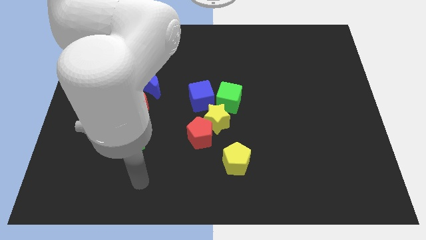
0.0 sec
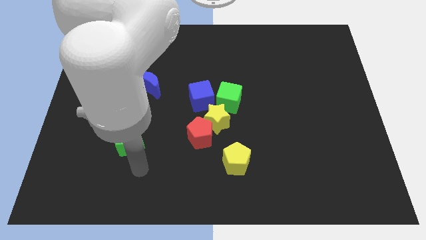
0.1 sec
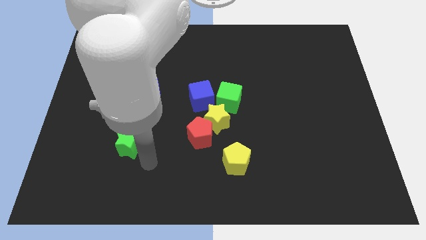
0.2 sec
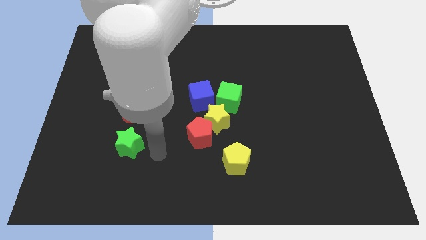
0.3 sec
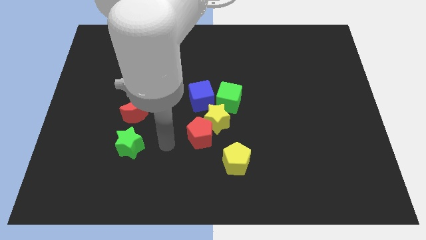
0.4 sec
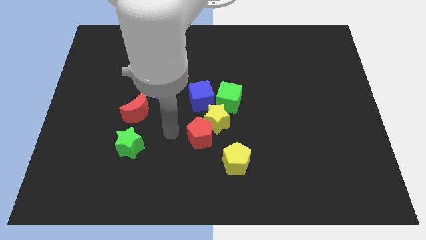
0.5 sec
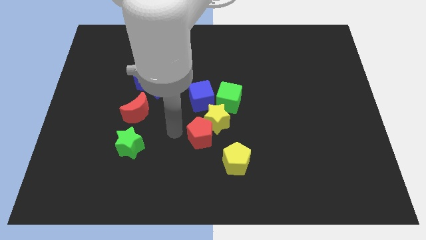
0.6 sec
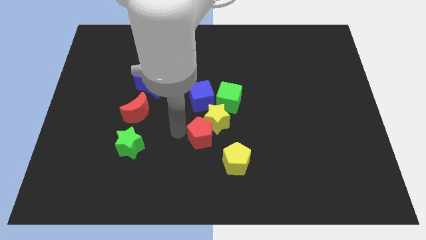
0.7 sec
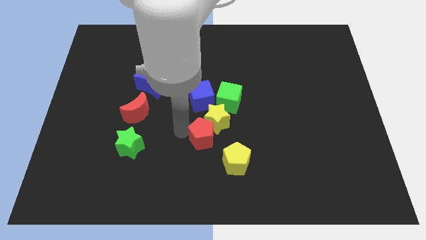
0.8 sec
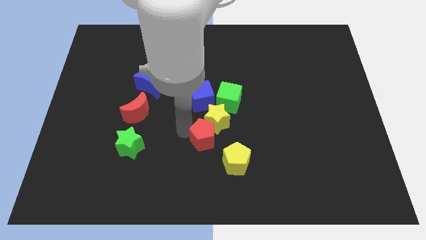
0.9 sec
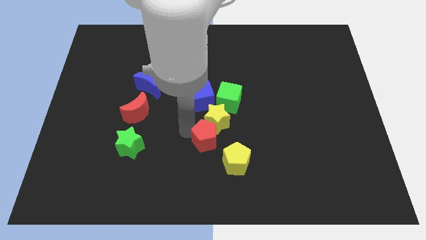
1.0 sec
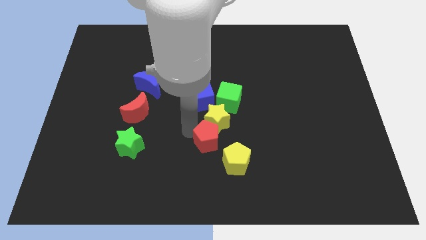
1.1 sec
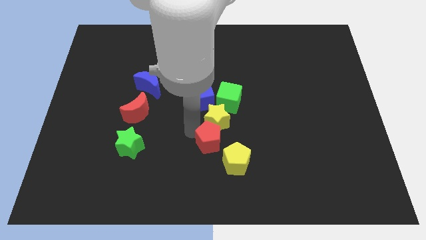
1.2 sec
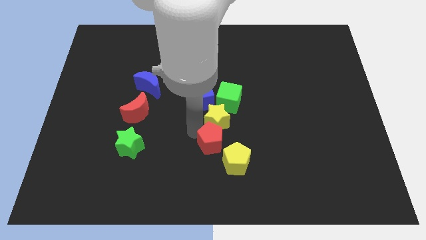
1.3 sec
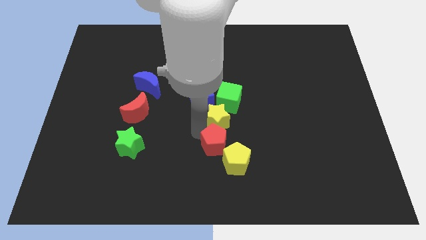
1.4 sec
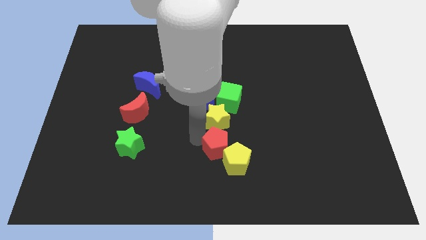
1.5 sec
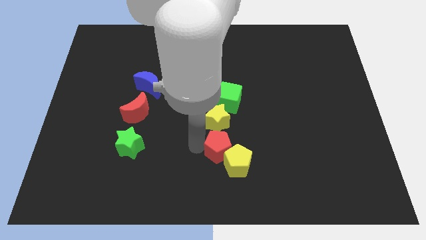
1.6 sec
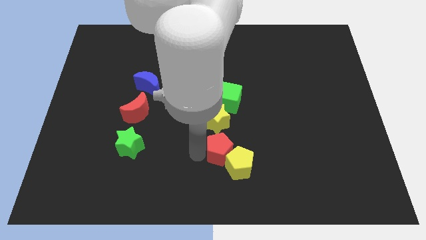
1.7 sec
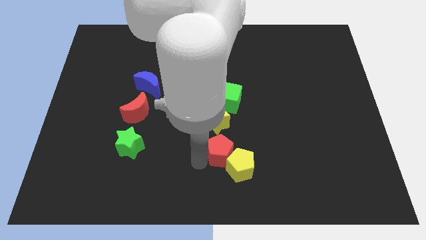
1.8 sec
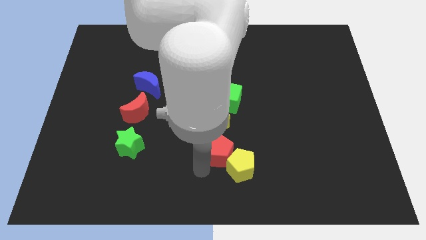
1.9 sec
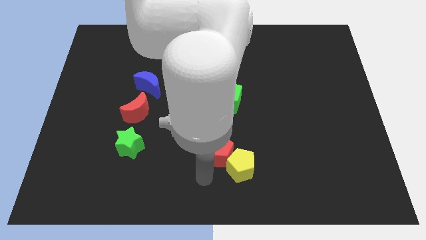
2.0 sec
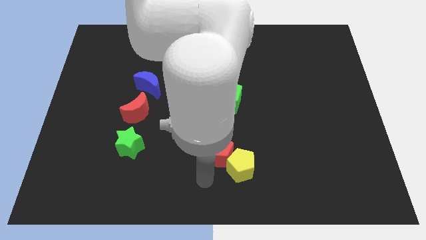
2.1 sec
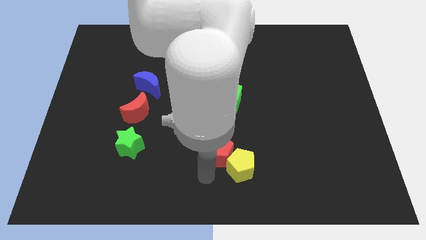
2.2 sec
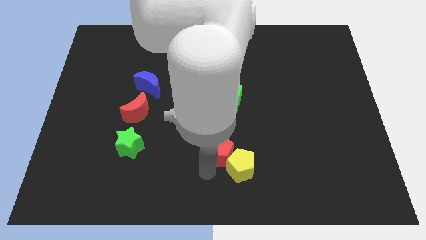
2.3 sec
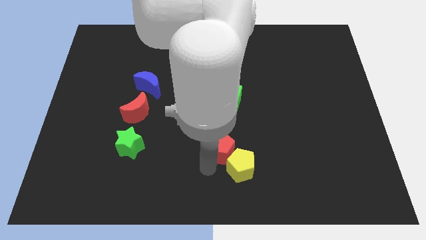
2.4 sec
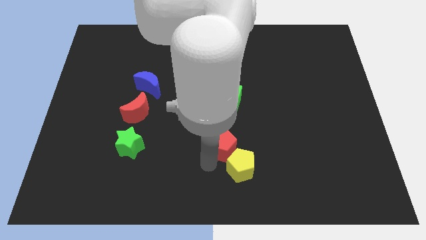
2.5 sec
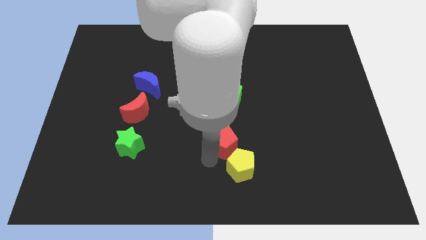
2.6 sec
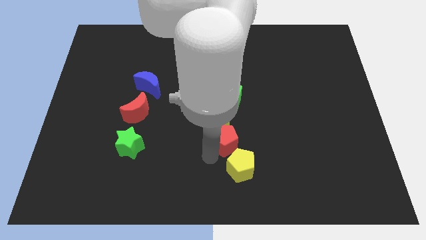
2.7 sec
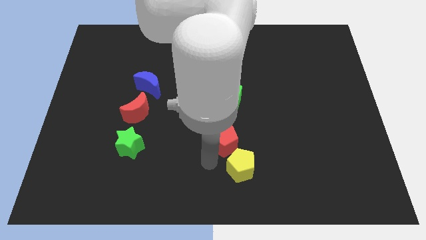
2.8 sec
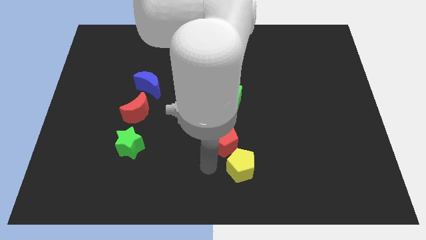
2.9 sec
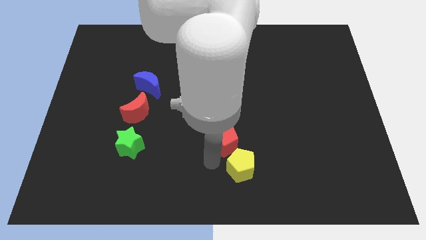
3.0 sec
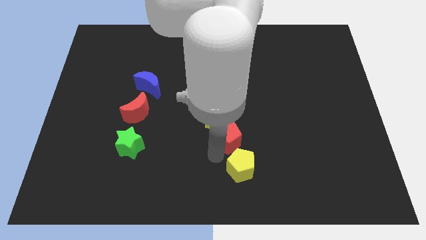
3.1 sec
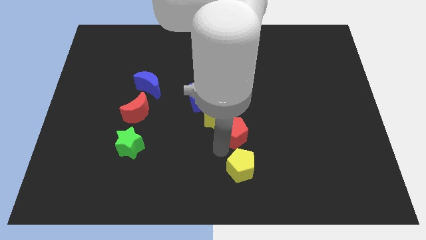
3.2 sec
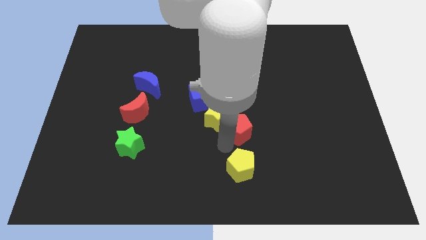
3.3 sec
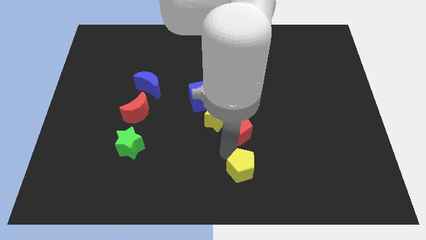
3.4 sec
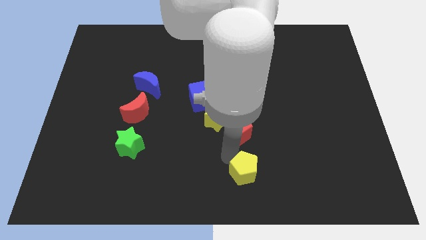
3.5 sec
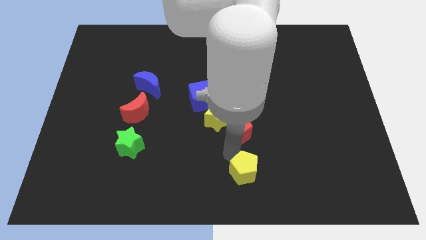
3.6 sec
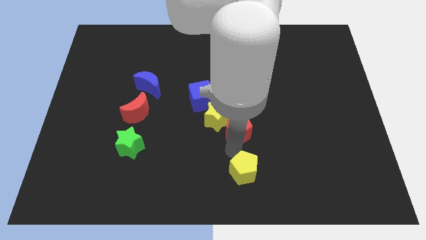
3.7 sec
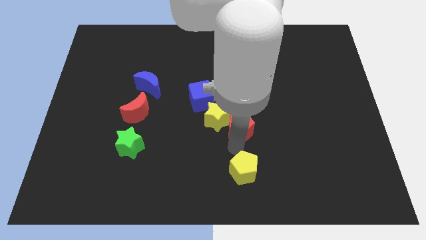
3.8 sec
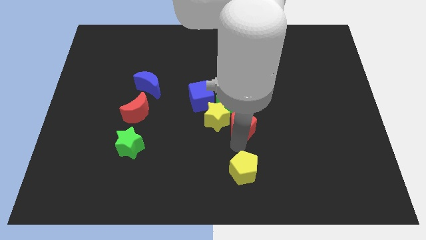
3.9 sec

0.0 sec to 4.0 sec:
slide the red pentagon slightly diagonally up and to the right

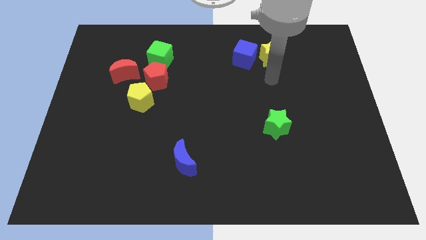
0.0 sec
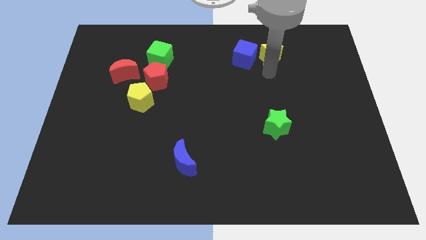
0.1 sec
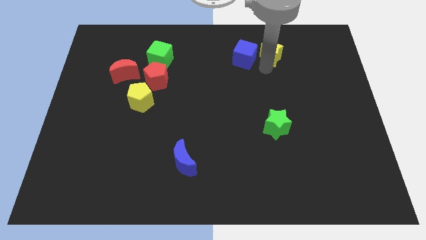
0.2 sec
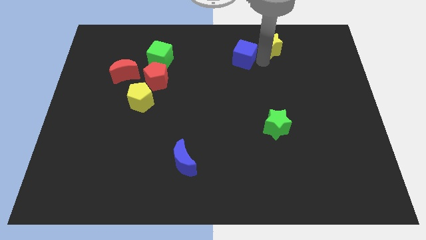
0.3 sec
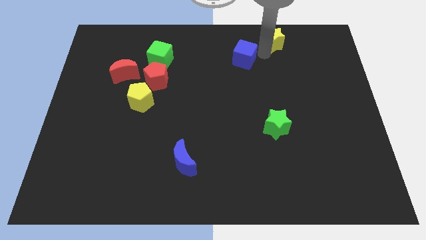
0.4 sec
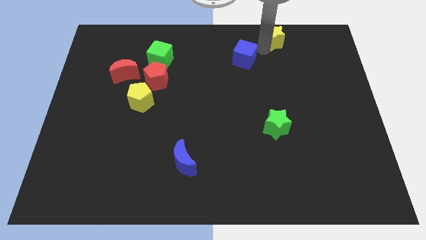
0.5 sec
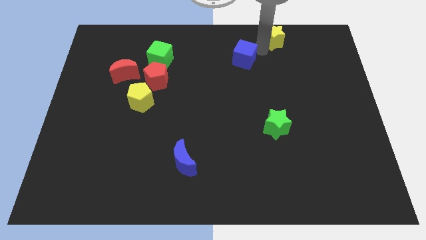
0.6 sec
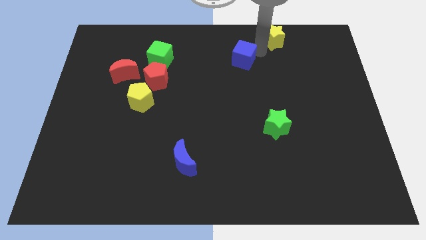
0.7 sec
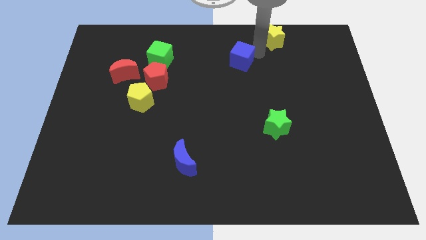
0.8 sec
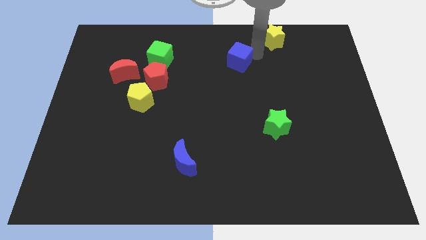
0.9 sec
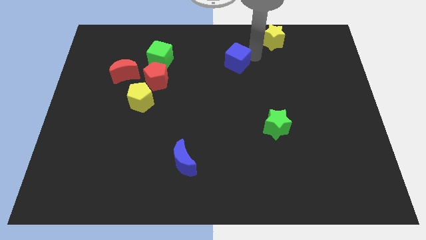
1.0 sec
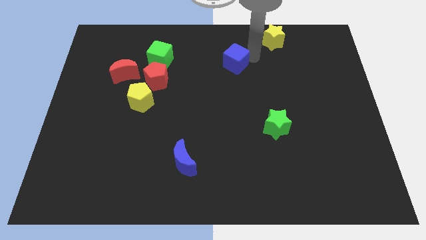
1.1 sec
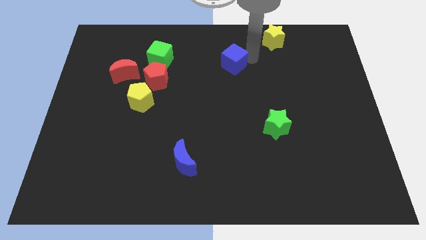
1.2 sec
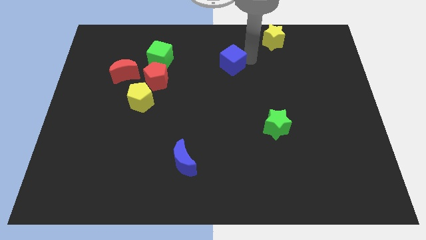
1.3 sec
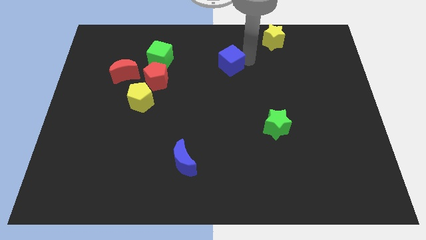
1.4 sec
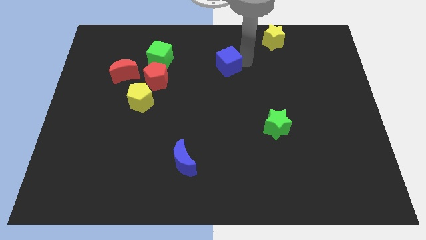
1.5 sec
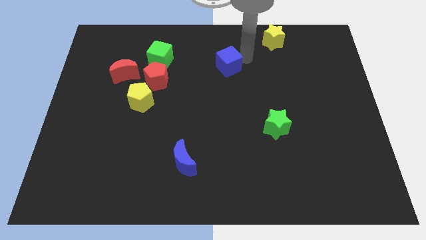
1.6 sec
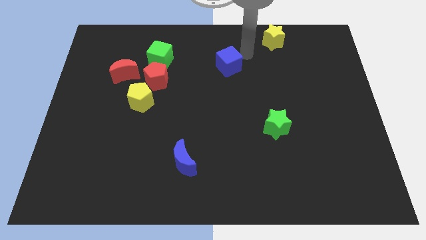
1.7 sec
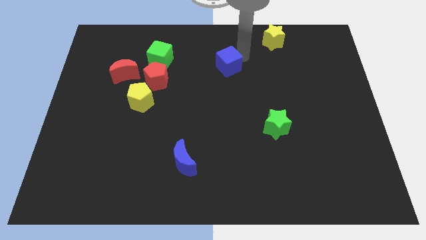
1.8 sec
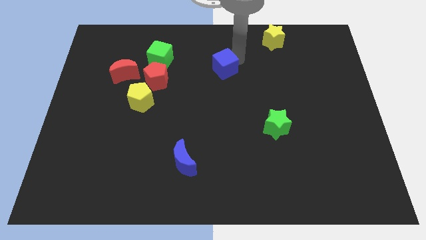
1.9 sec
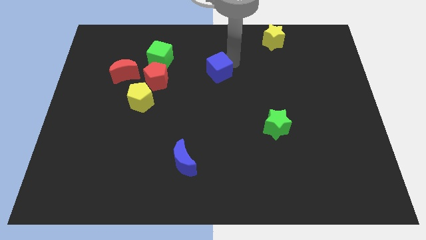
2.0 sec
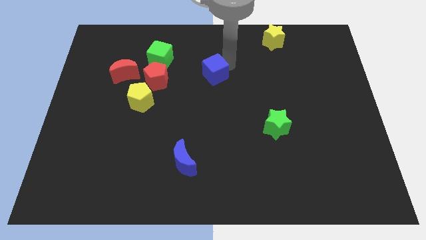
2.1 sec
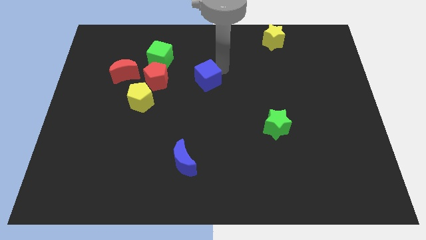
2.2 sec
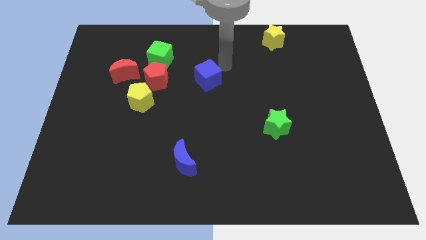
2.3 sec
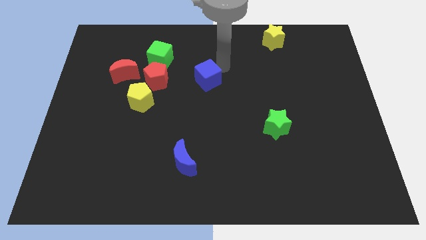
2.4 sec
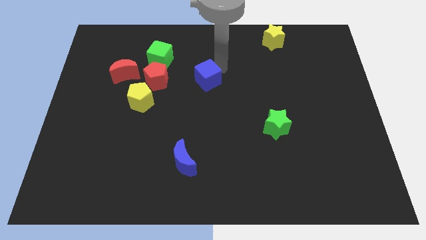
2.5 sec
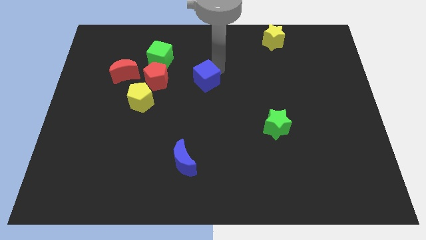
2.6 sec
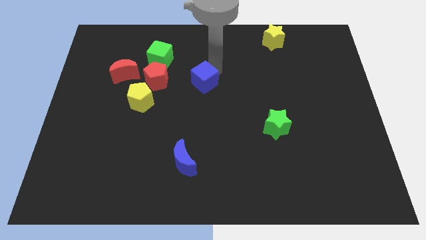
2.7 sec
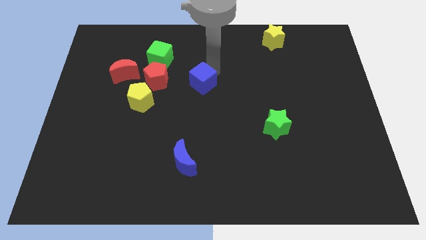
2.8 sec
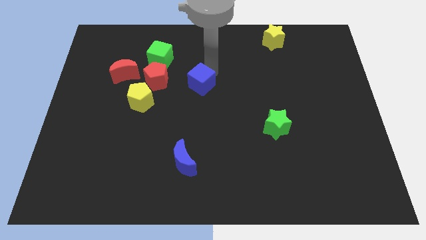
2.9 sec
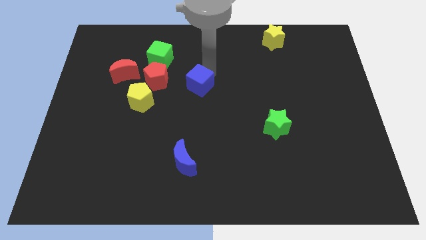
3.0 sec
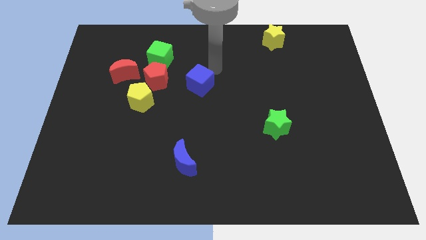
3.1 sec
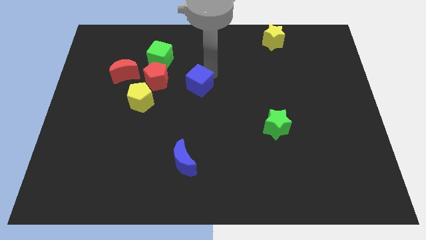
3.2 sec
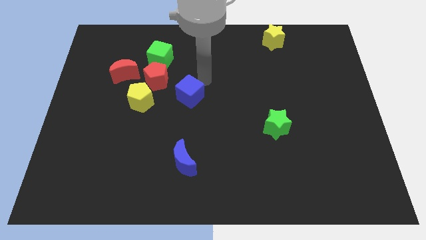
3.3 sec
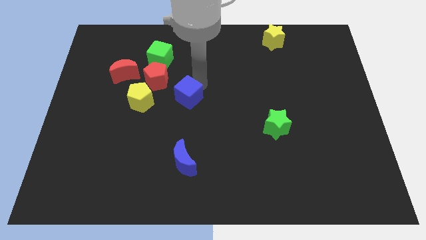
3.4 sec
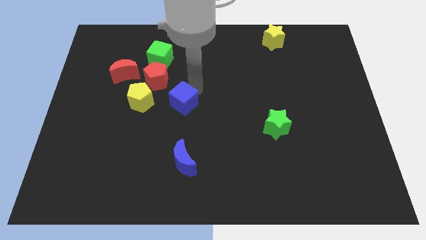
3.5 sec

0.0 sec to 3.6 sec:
slide the blue cube downwards and left diagonally

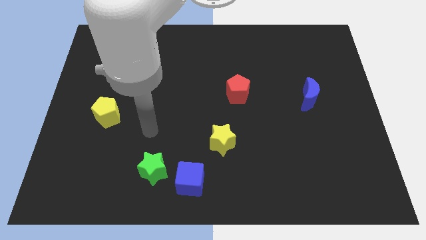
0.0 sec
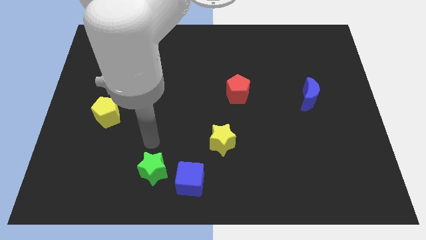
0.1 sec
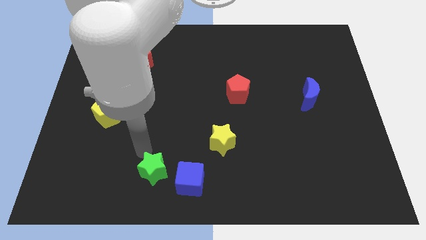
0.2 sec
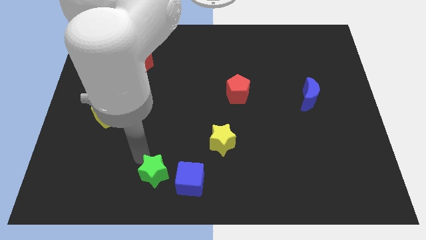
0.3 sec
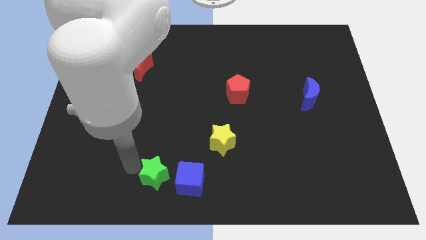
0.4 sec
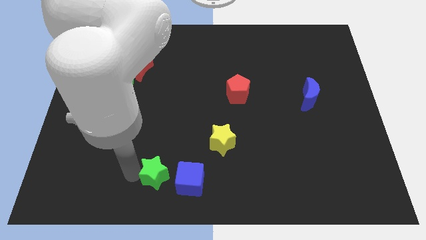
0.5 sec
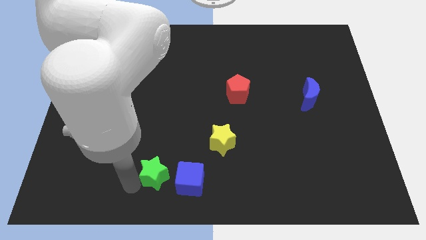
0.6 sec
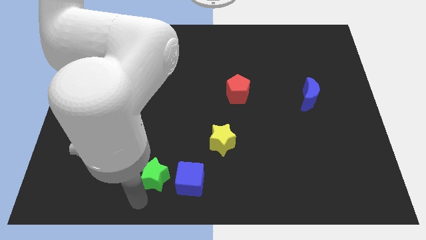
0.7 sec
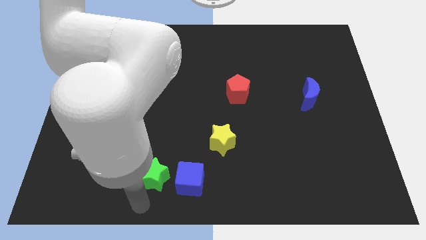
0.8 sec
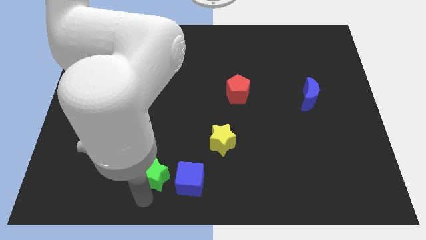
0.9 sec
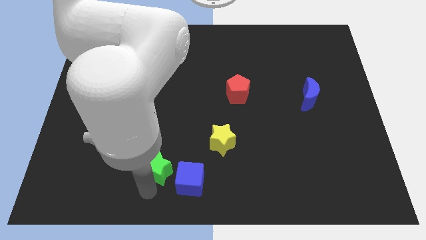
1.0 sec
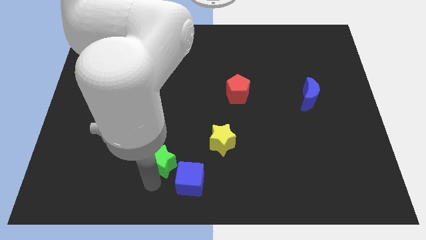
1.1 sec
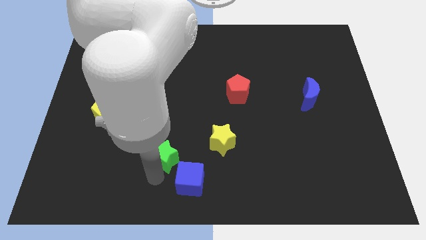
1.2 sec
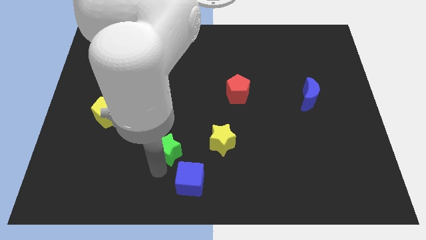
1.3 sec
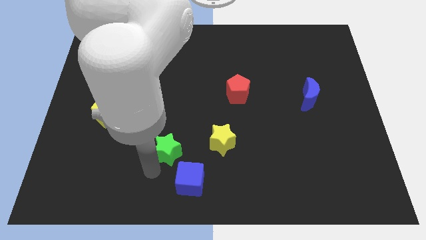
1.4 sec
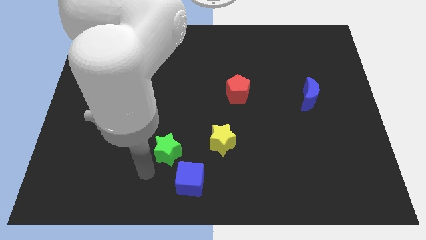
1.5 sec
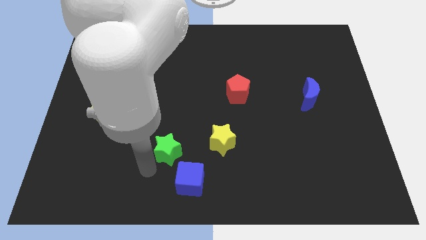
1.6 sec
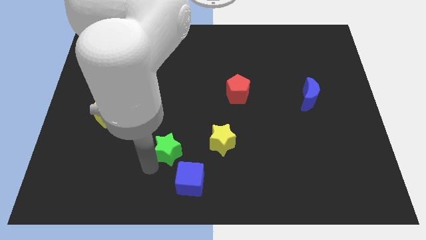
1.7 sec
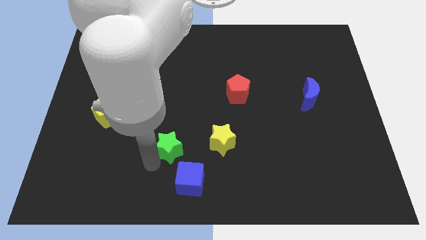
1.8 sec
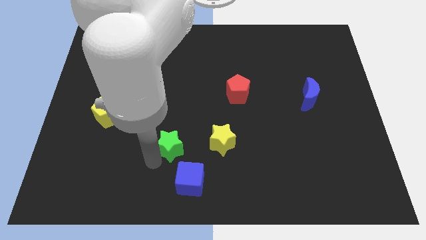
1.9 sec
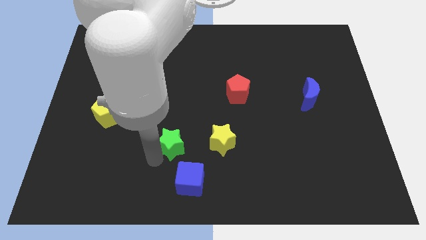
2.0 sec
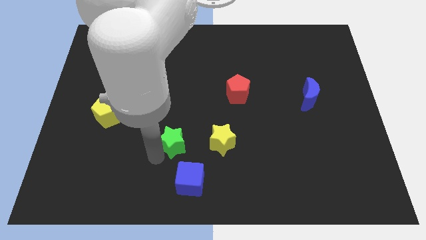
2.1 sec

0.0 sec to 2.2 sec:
move the green star somewhat upwards and then to the right
